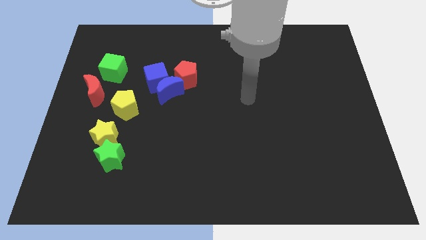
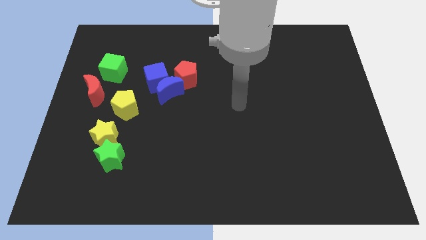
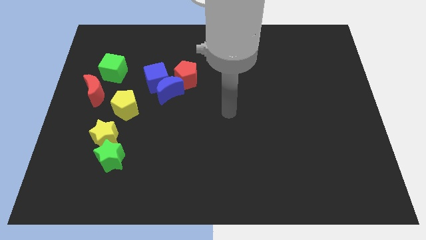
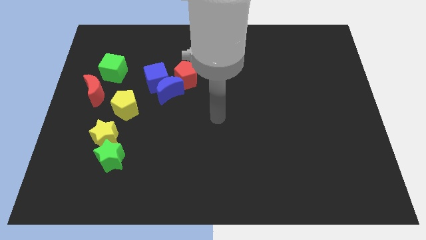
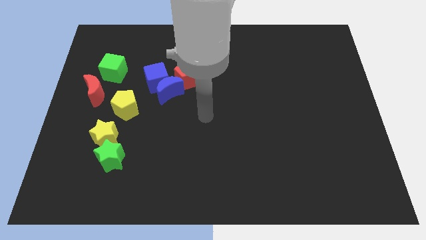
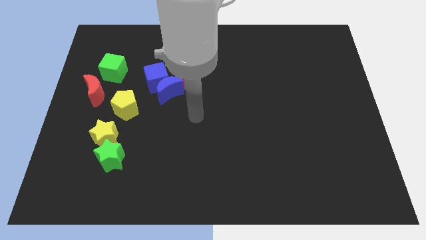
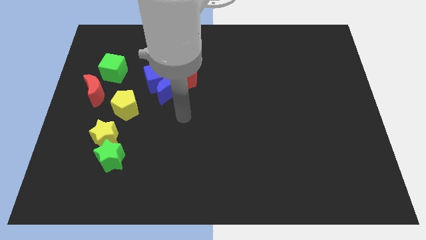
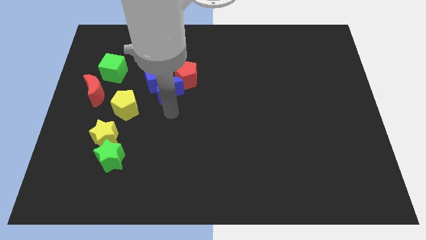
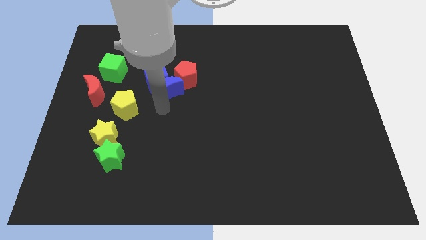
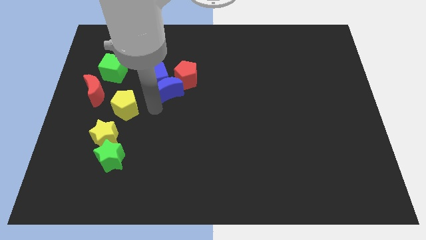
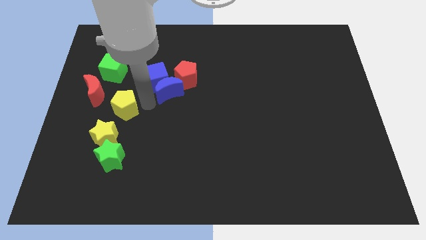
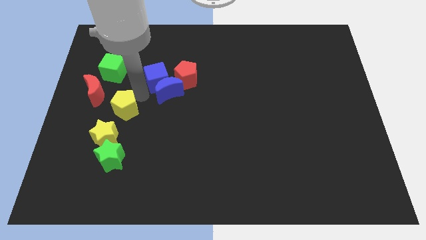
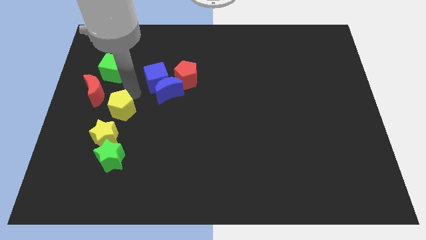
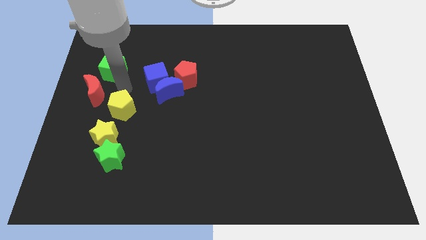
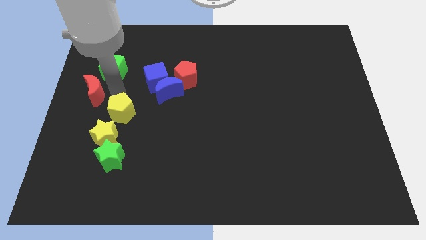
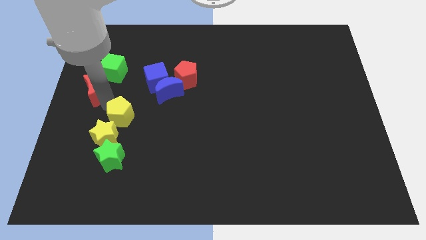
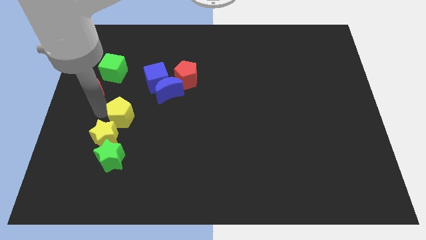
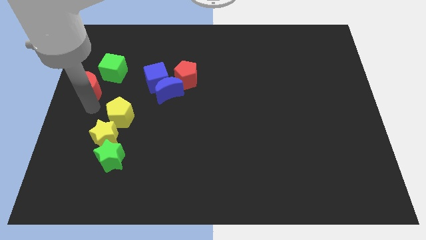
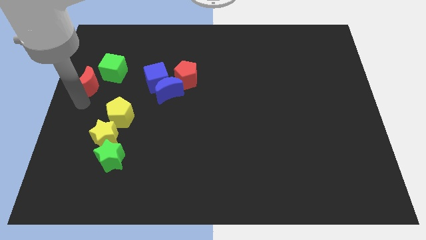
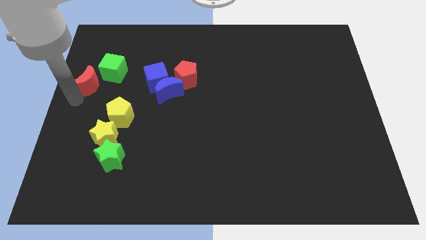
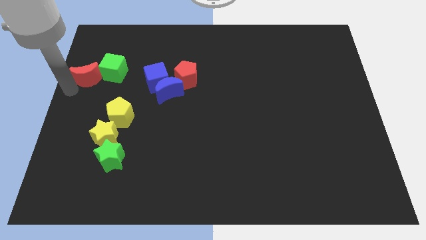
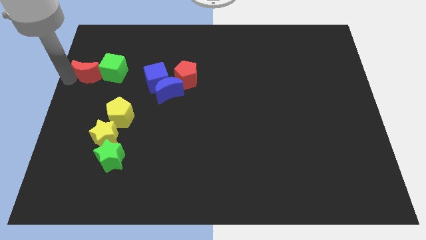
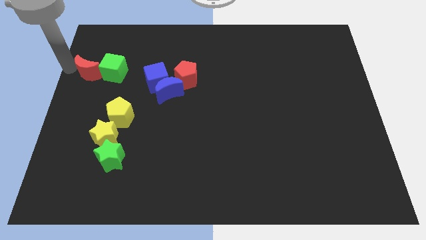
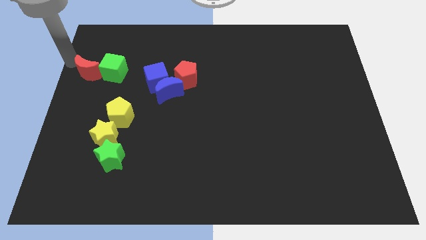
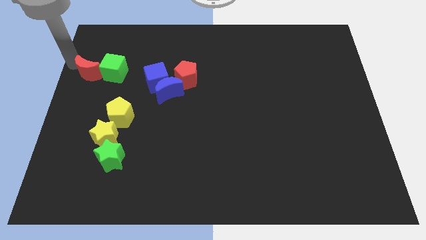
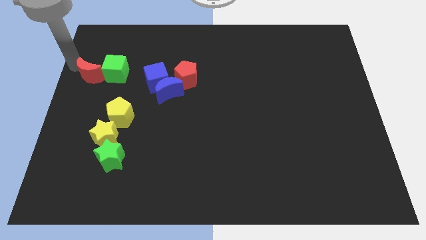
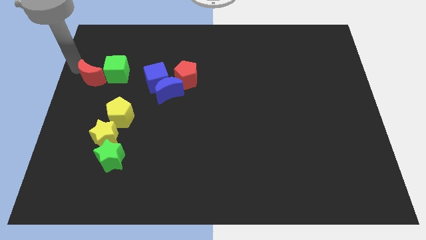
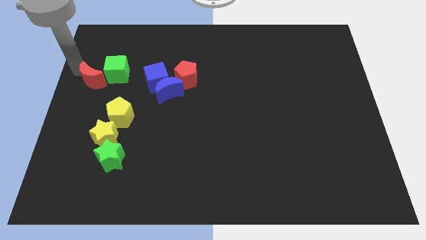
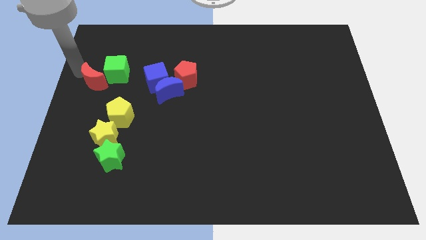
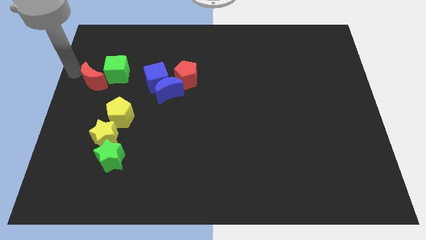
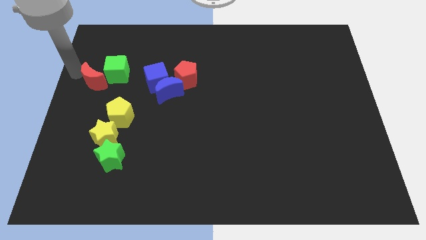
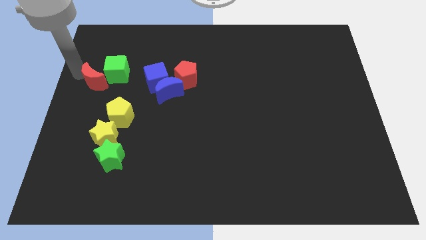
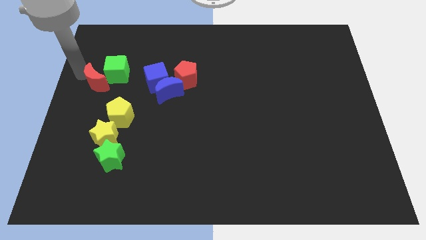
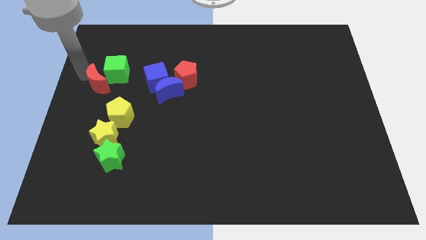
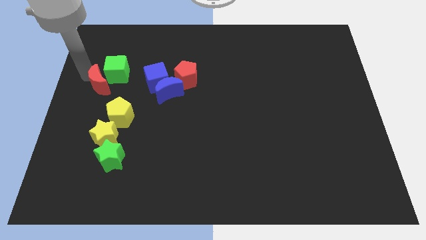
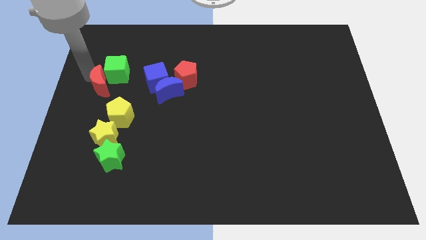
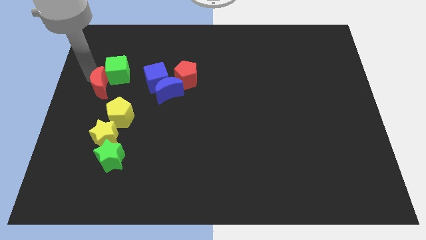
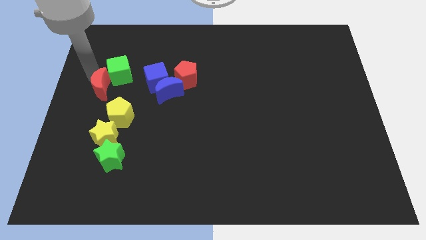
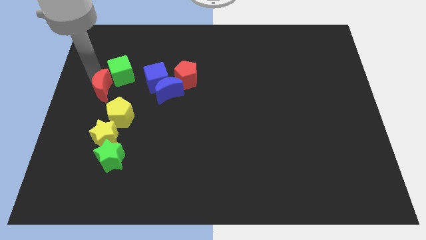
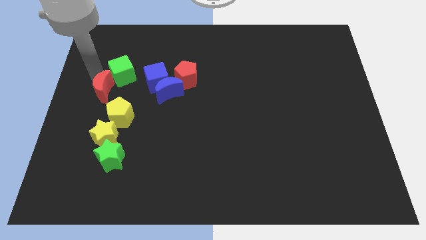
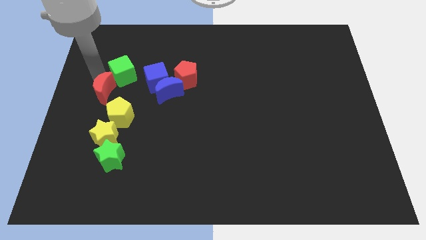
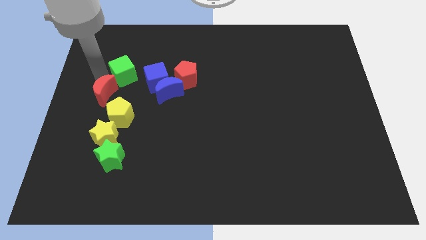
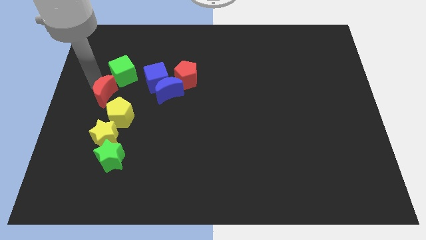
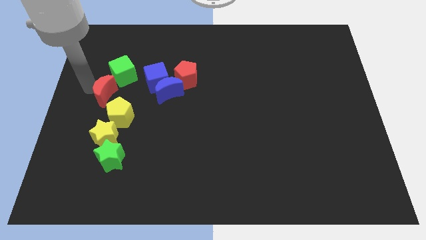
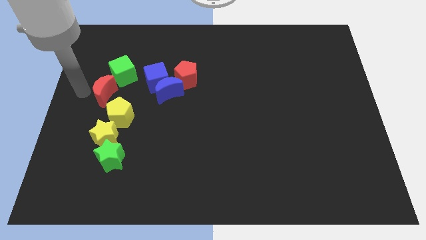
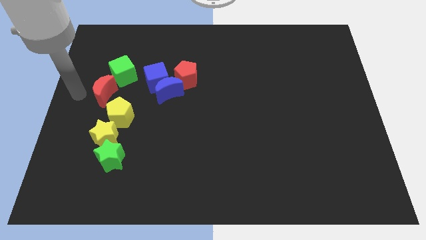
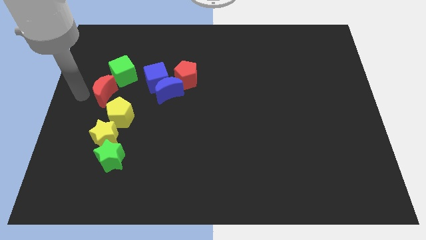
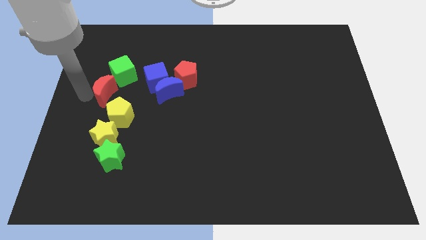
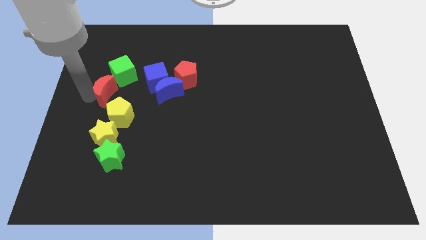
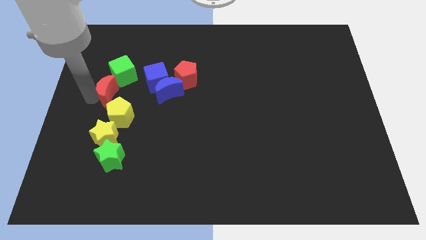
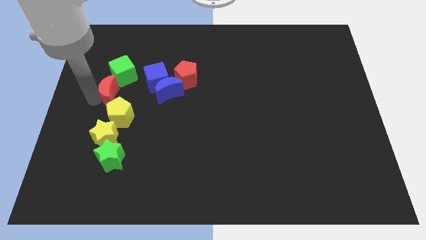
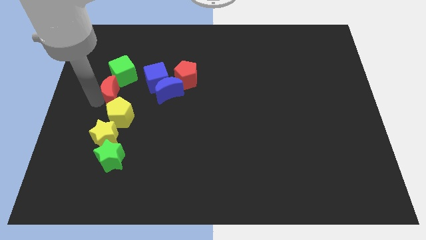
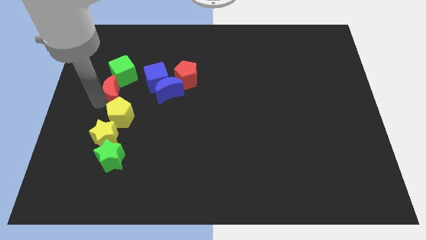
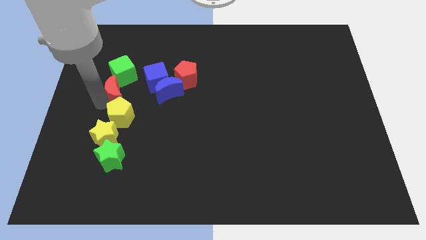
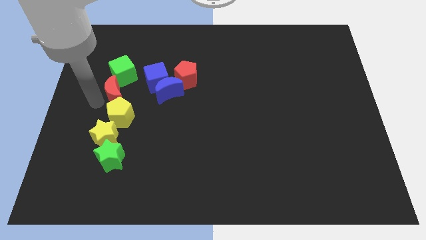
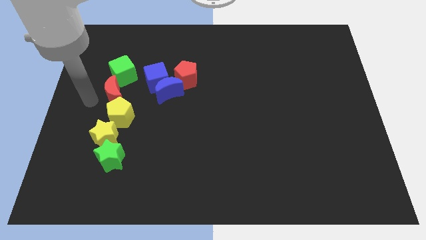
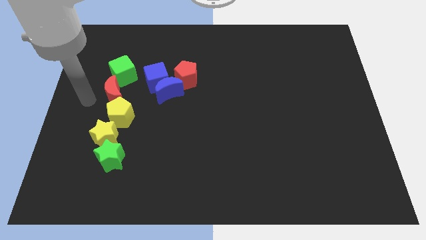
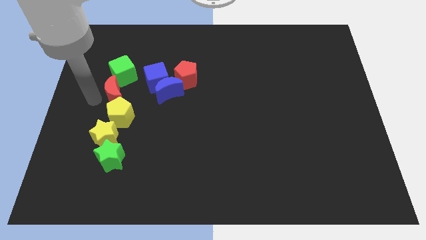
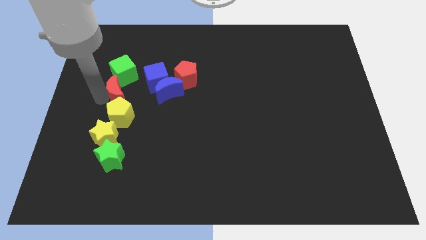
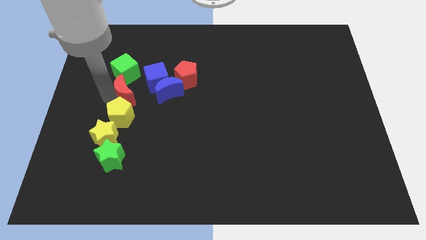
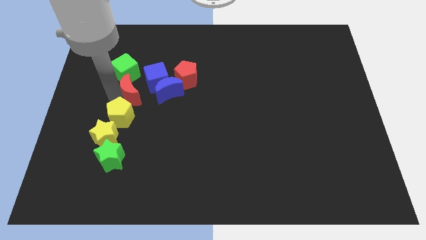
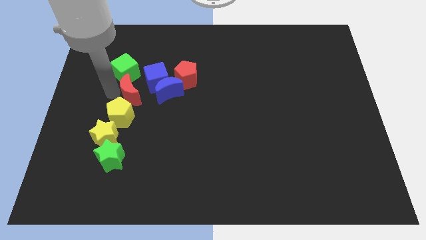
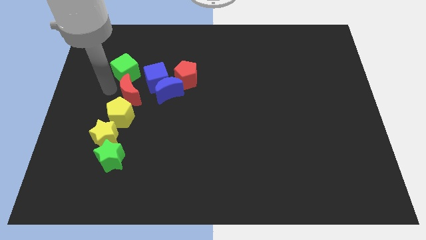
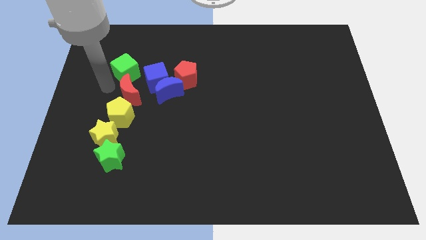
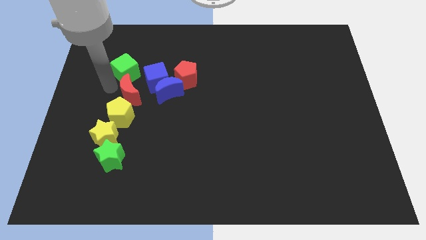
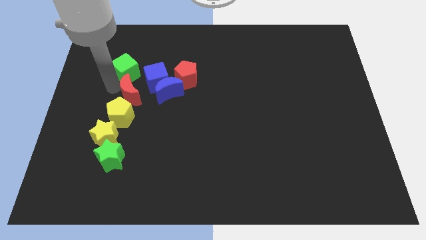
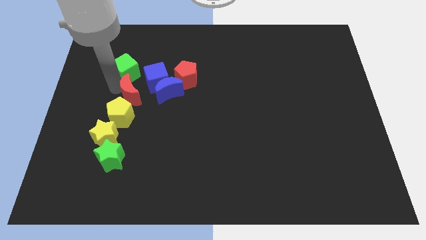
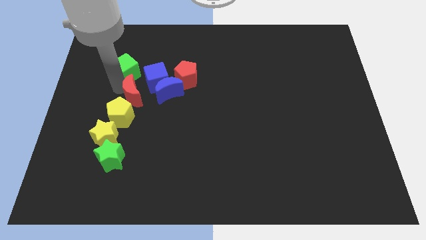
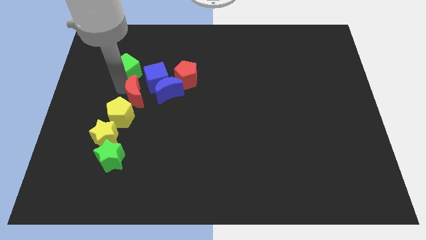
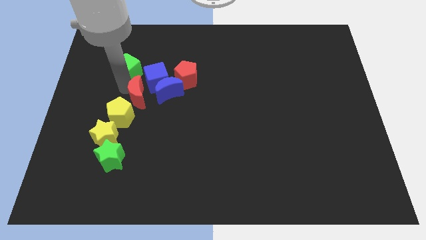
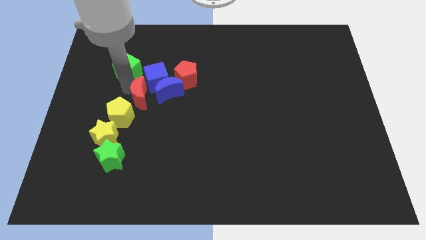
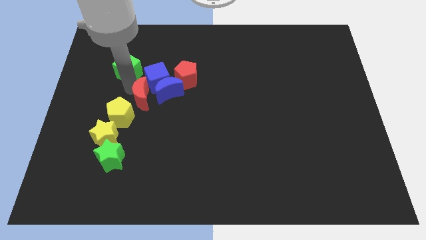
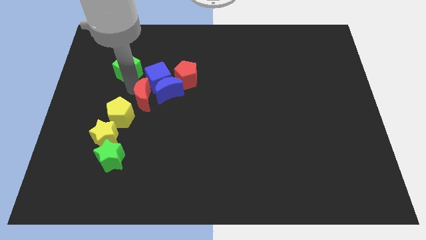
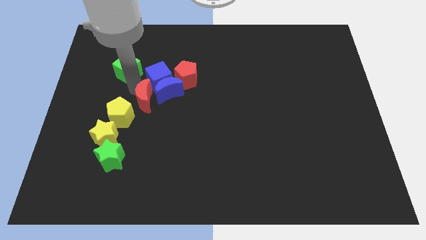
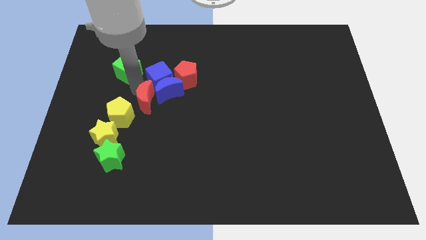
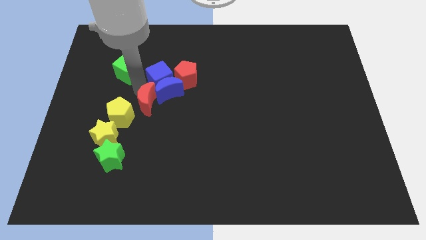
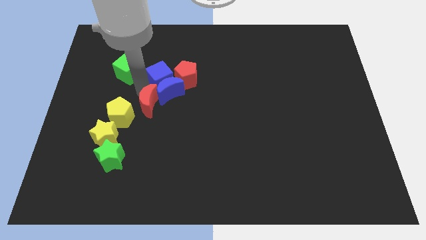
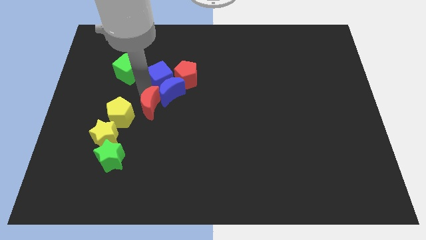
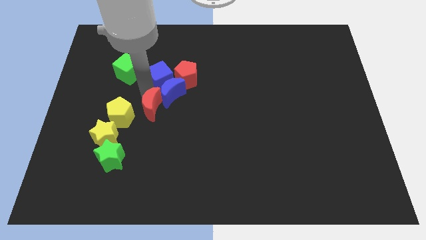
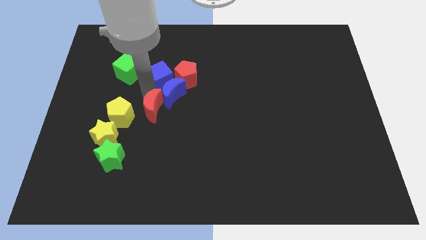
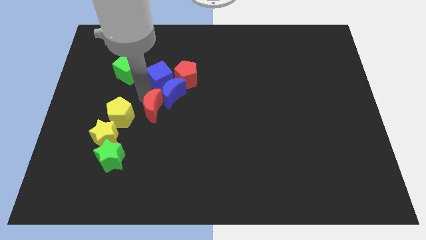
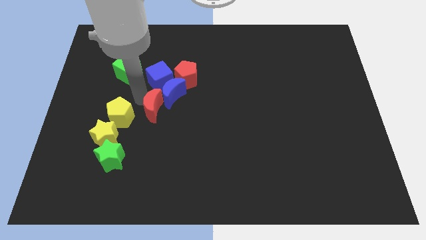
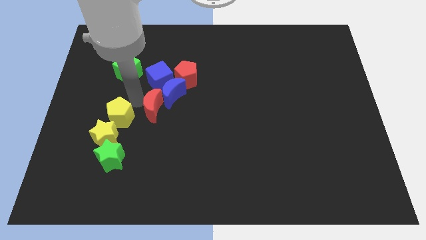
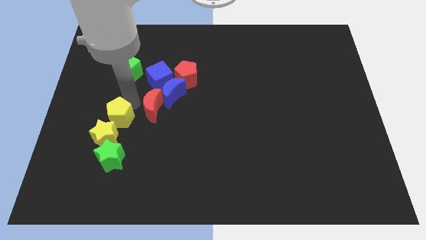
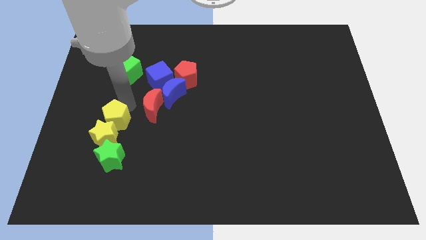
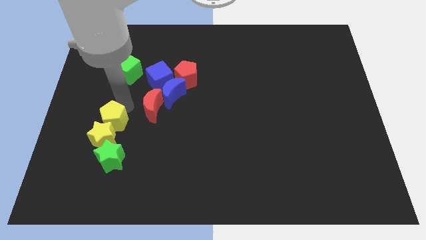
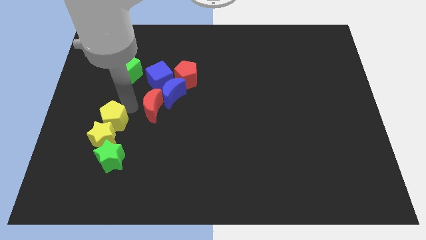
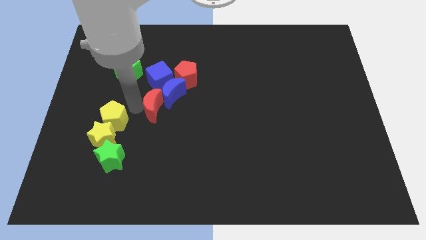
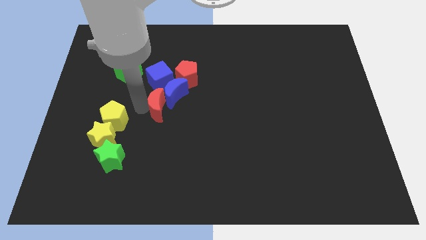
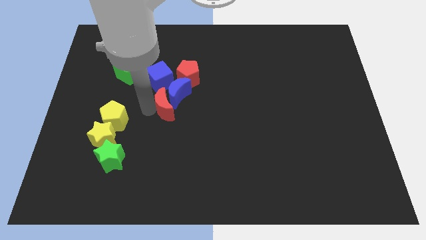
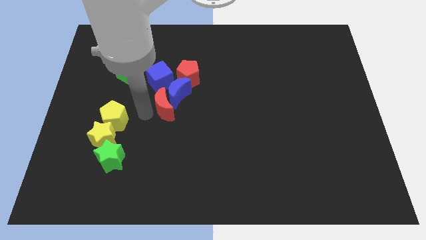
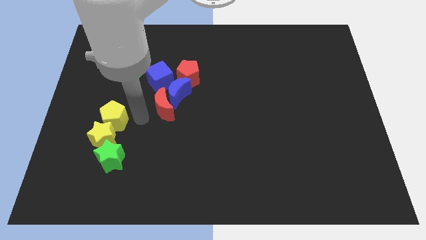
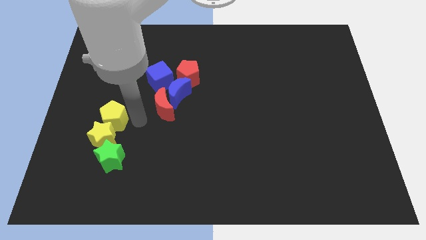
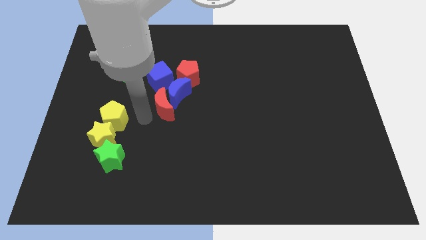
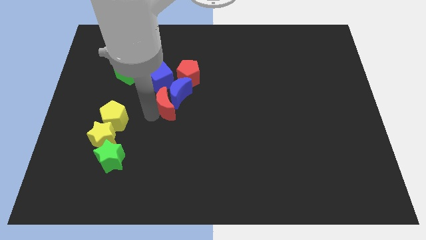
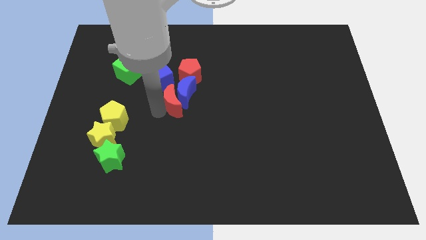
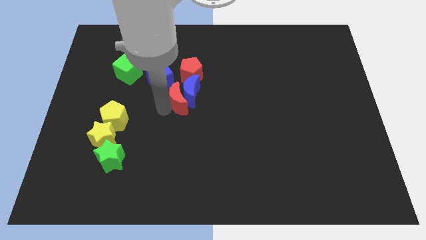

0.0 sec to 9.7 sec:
push the red moon right
